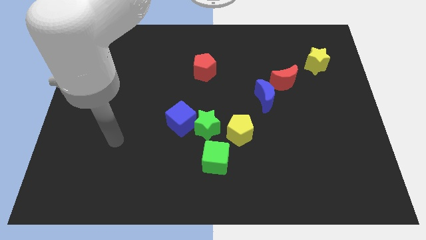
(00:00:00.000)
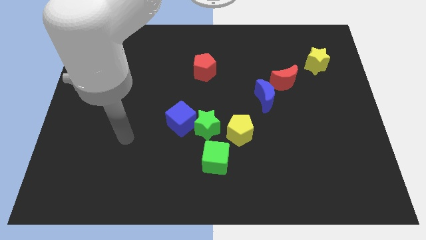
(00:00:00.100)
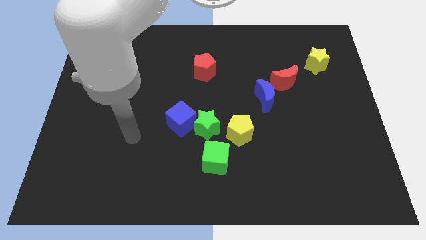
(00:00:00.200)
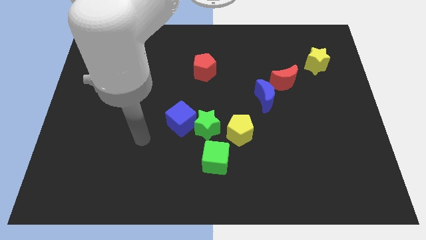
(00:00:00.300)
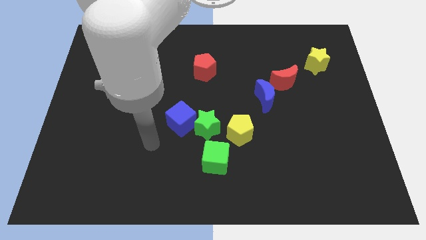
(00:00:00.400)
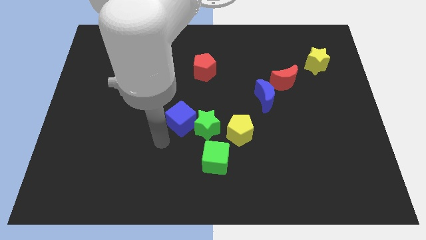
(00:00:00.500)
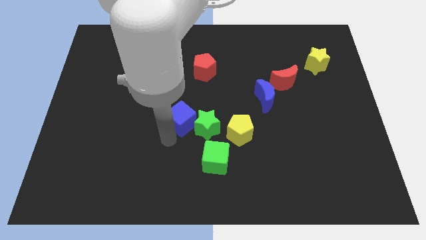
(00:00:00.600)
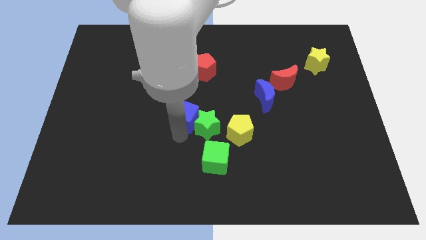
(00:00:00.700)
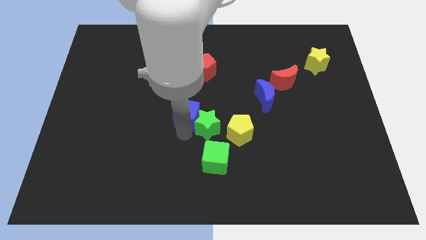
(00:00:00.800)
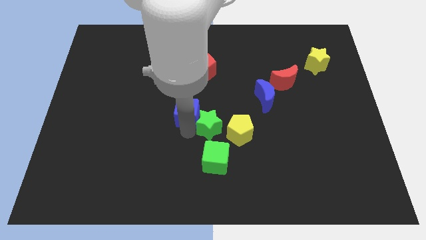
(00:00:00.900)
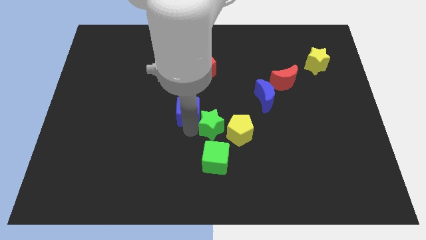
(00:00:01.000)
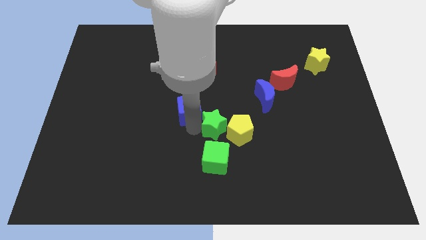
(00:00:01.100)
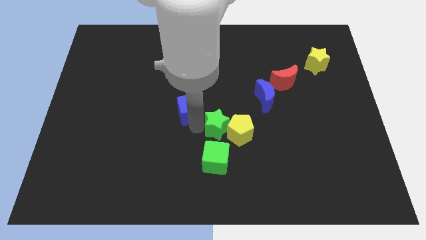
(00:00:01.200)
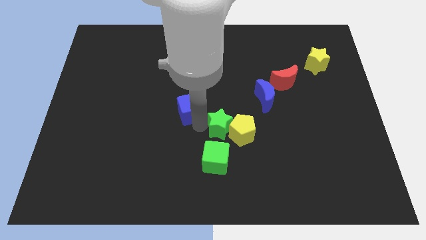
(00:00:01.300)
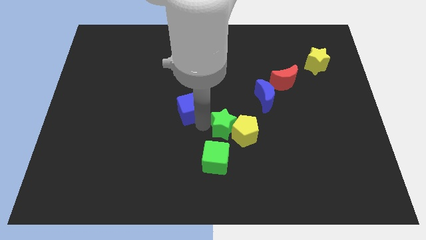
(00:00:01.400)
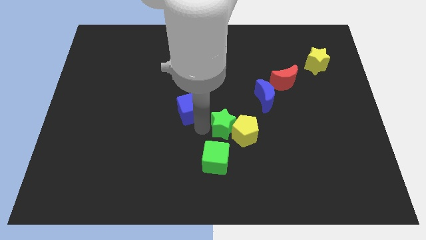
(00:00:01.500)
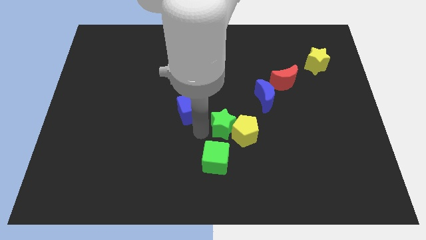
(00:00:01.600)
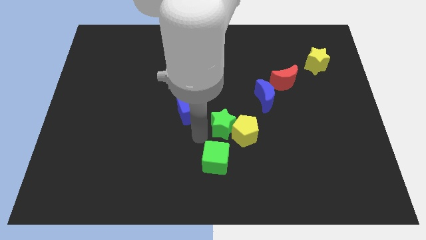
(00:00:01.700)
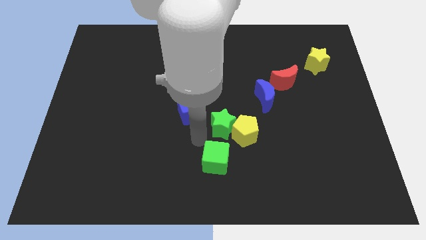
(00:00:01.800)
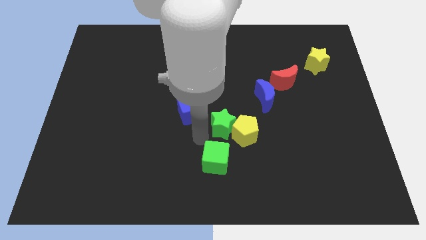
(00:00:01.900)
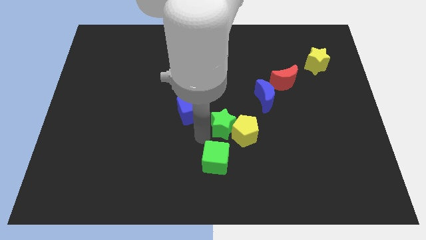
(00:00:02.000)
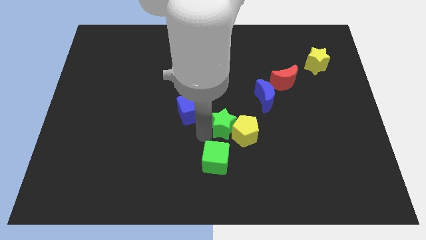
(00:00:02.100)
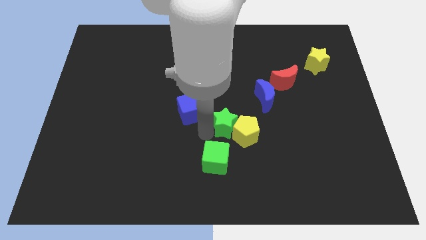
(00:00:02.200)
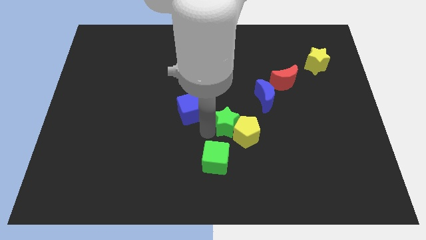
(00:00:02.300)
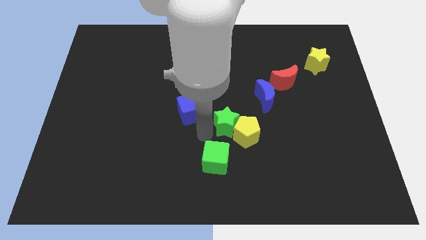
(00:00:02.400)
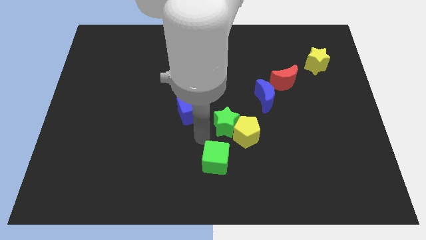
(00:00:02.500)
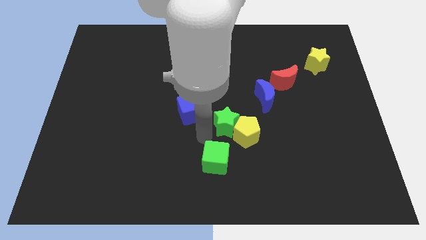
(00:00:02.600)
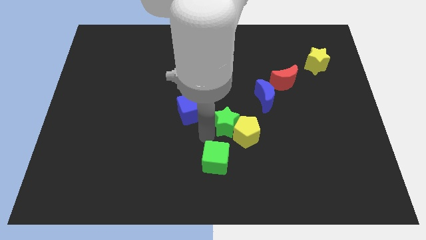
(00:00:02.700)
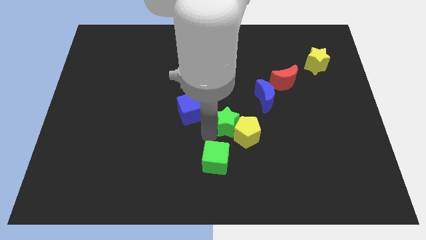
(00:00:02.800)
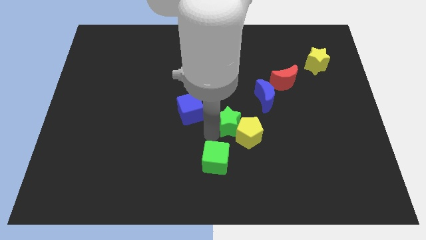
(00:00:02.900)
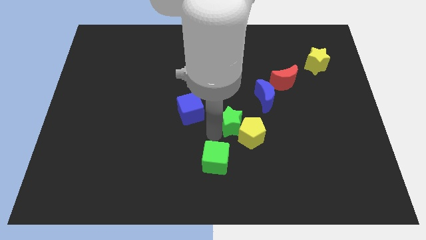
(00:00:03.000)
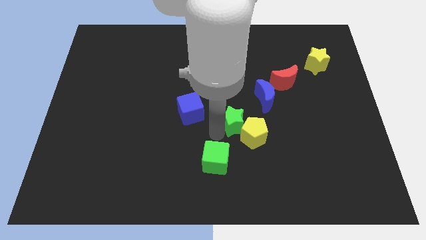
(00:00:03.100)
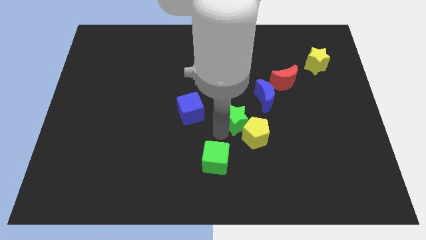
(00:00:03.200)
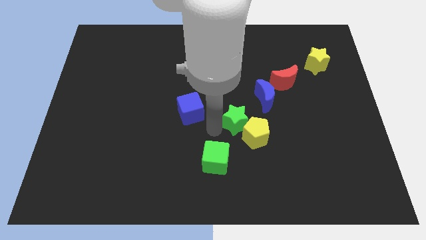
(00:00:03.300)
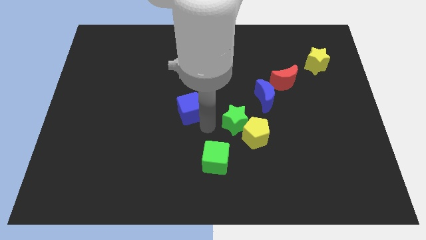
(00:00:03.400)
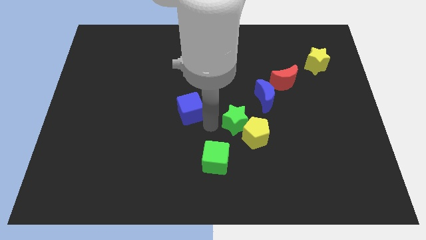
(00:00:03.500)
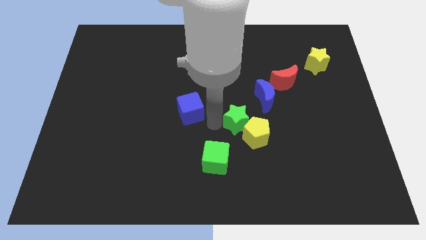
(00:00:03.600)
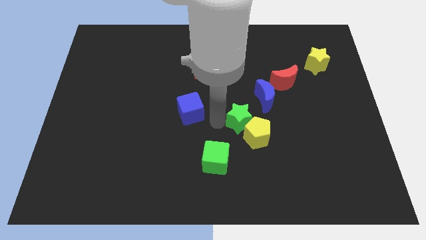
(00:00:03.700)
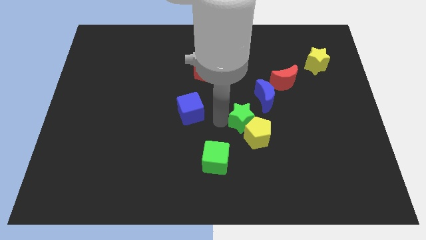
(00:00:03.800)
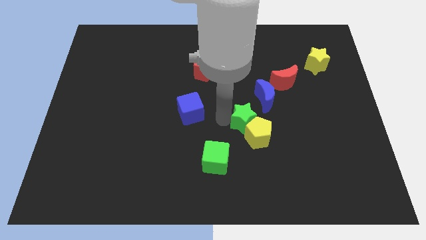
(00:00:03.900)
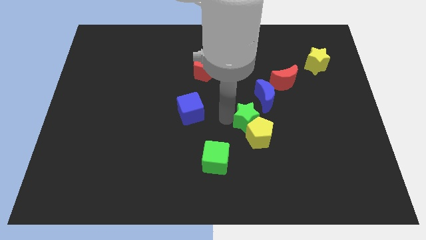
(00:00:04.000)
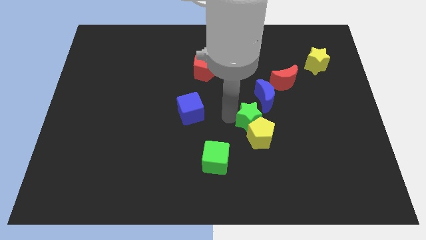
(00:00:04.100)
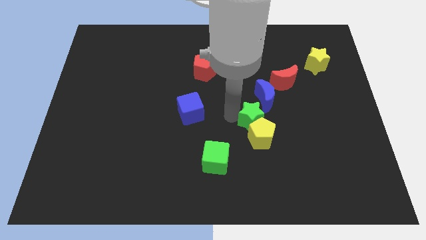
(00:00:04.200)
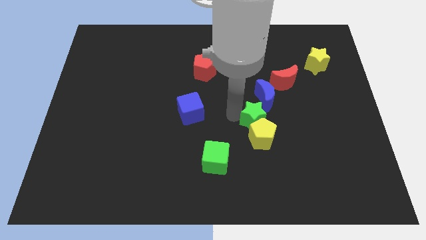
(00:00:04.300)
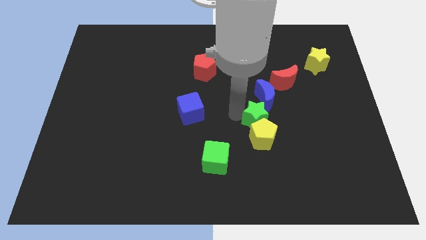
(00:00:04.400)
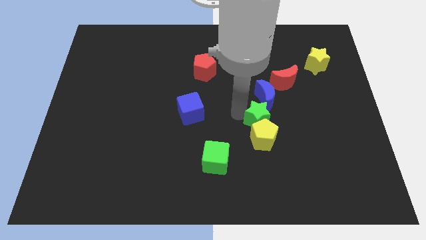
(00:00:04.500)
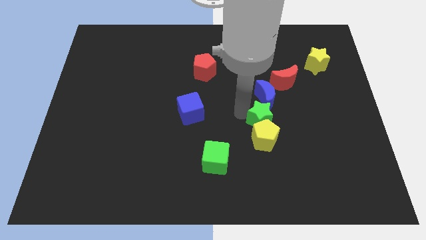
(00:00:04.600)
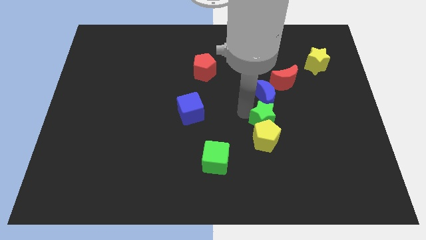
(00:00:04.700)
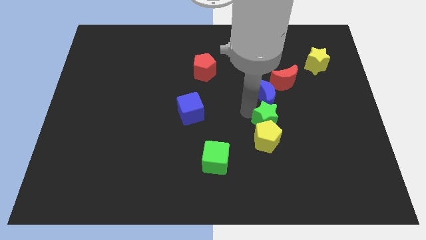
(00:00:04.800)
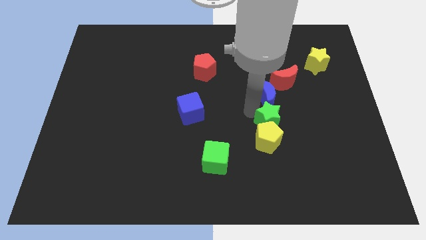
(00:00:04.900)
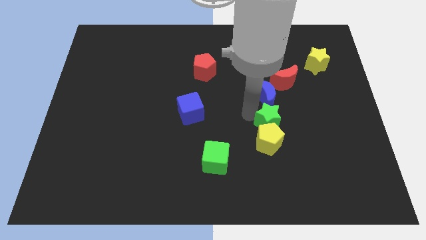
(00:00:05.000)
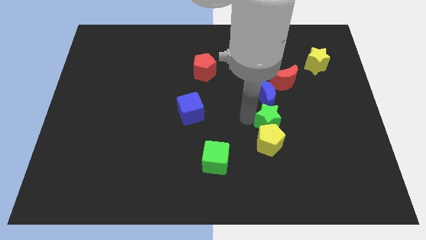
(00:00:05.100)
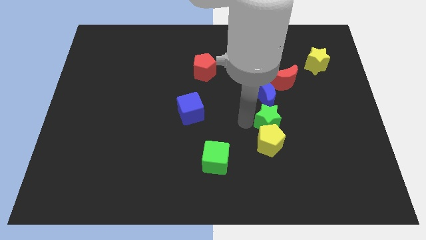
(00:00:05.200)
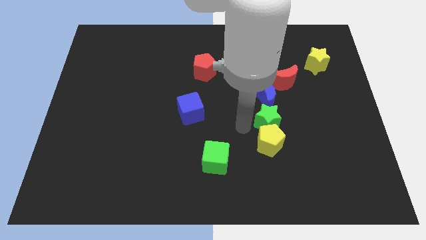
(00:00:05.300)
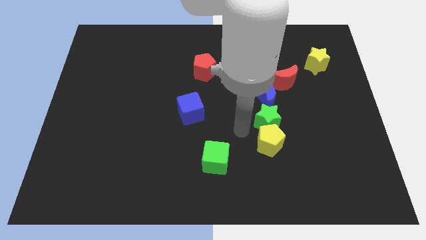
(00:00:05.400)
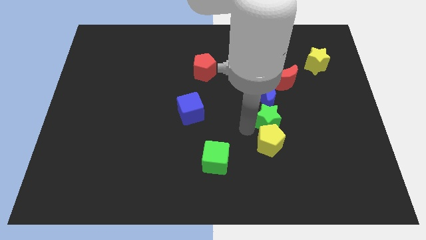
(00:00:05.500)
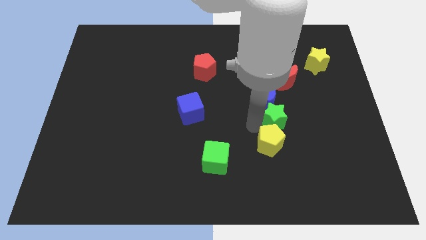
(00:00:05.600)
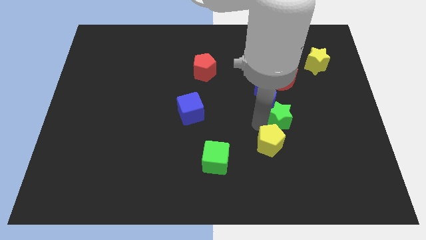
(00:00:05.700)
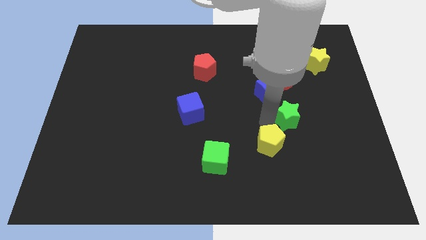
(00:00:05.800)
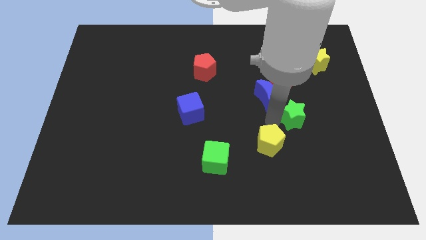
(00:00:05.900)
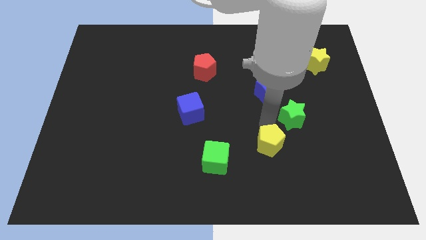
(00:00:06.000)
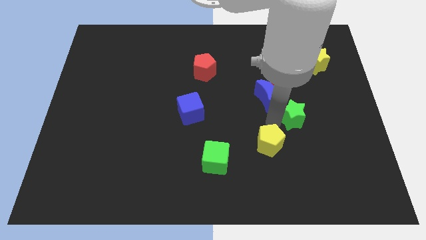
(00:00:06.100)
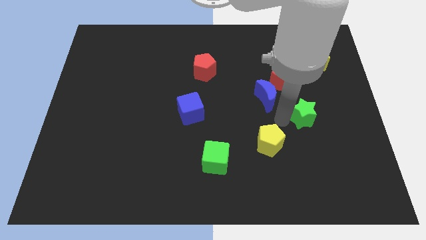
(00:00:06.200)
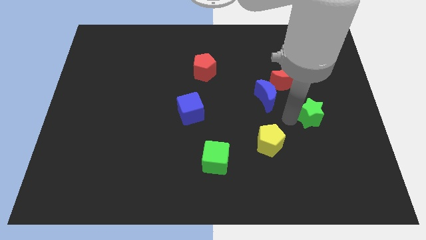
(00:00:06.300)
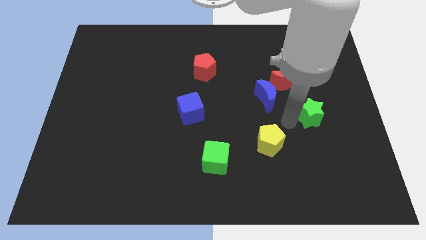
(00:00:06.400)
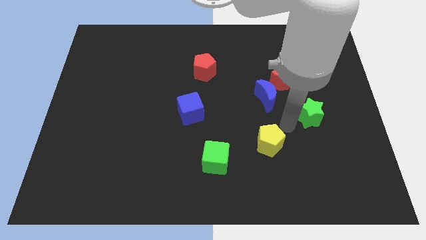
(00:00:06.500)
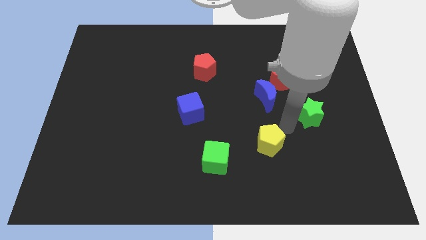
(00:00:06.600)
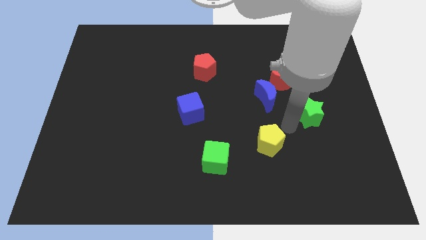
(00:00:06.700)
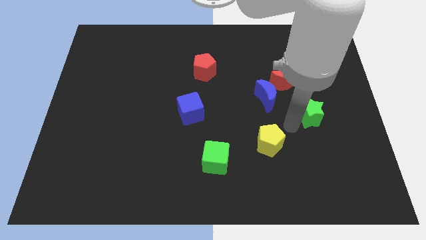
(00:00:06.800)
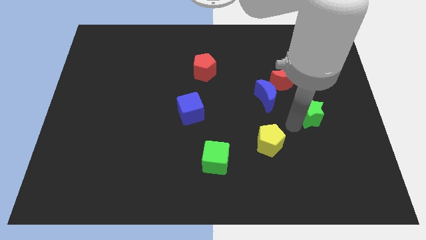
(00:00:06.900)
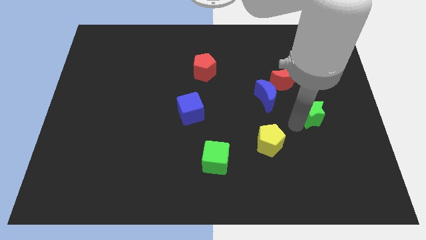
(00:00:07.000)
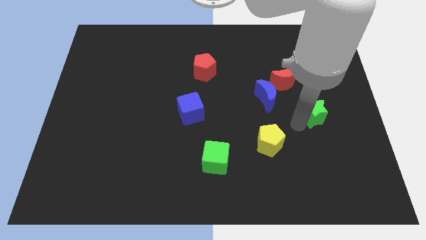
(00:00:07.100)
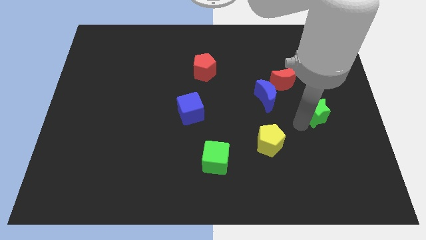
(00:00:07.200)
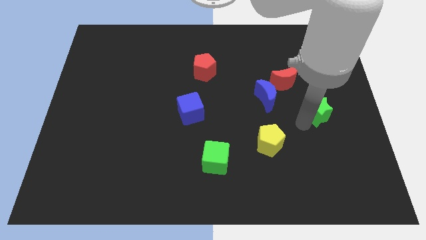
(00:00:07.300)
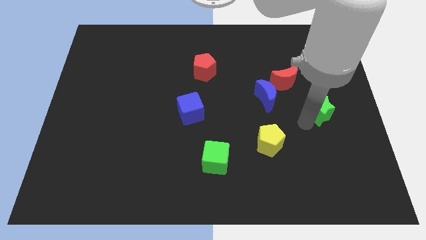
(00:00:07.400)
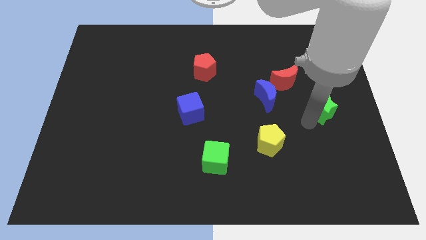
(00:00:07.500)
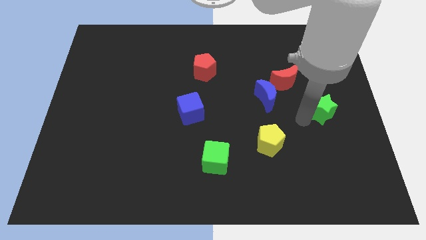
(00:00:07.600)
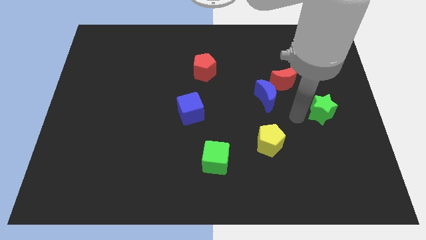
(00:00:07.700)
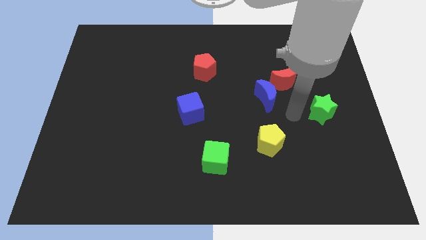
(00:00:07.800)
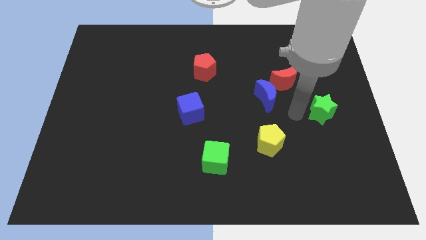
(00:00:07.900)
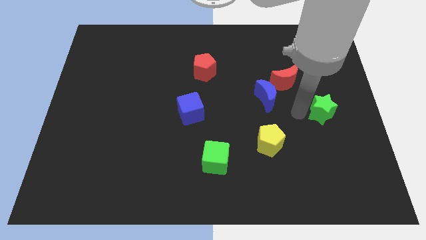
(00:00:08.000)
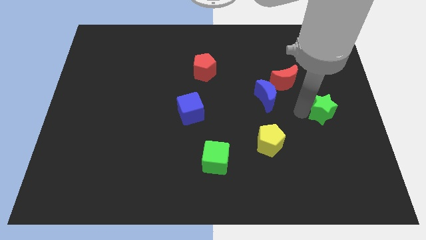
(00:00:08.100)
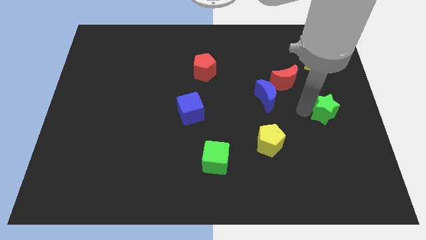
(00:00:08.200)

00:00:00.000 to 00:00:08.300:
move the green star to the center right
